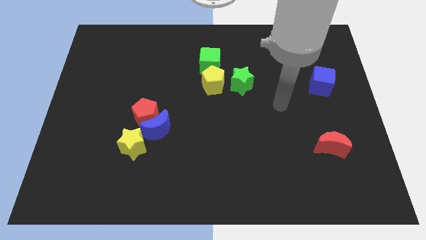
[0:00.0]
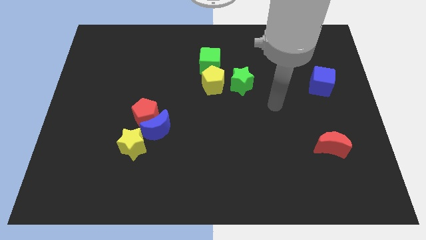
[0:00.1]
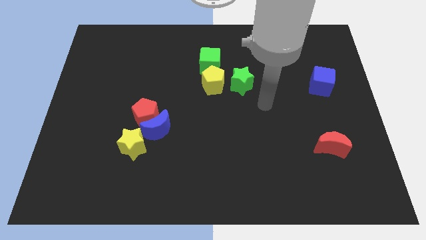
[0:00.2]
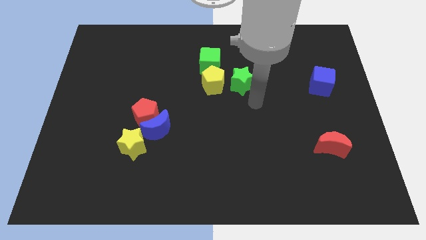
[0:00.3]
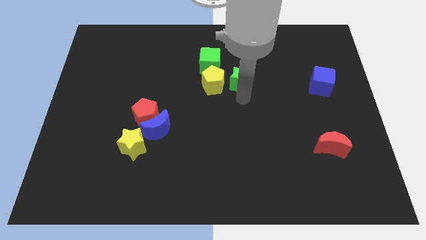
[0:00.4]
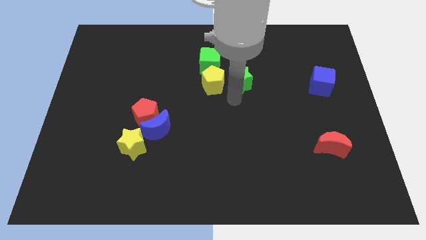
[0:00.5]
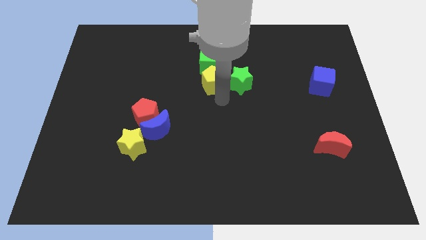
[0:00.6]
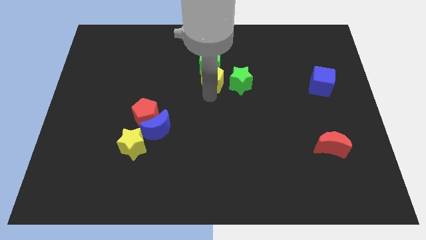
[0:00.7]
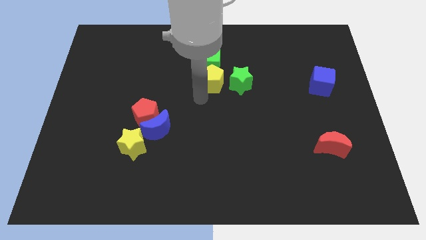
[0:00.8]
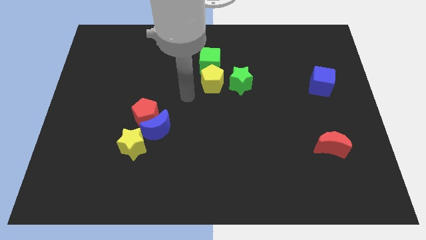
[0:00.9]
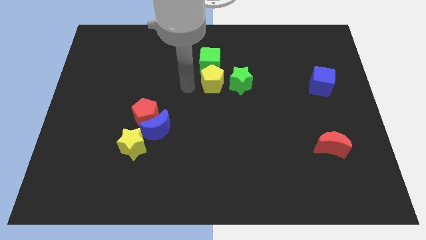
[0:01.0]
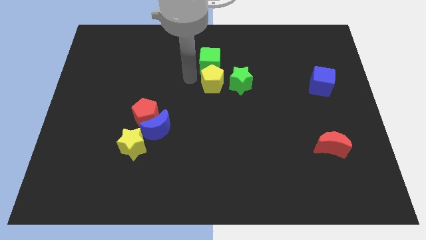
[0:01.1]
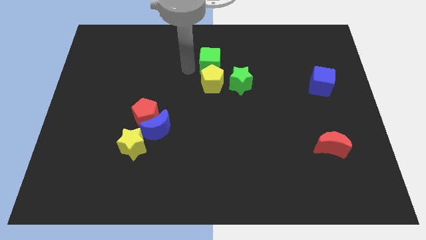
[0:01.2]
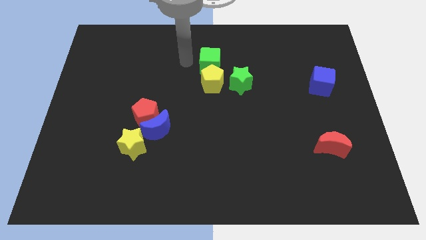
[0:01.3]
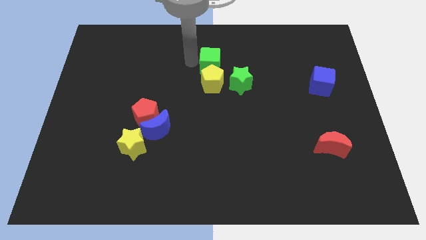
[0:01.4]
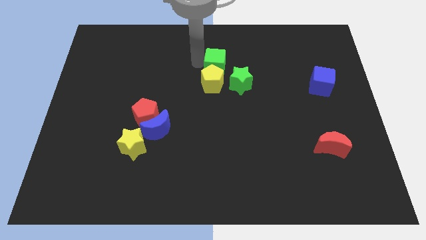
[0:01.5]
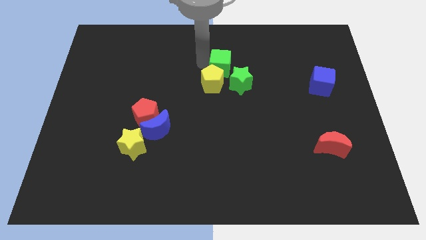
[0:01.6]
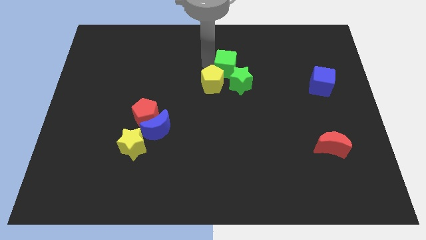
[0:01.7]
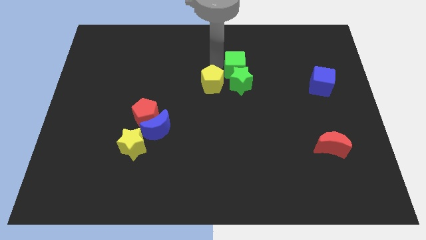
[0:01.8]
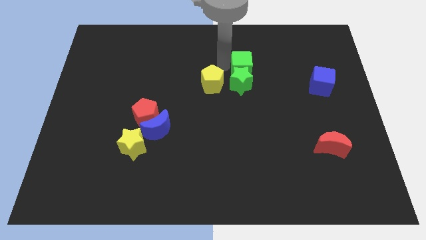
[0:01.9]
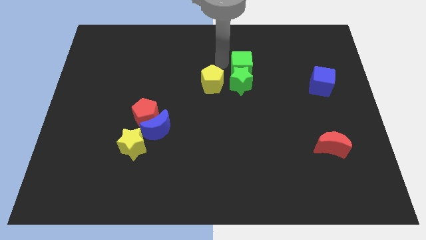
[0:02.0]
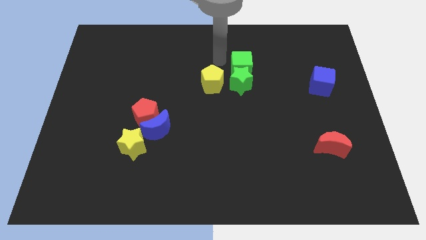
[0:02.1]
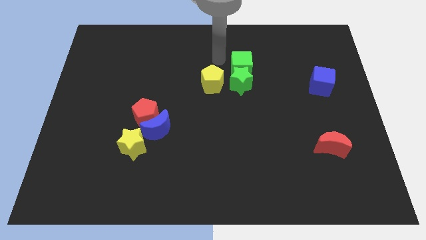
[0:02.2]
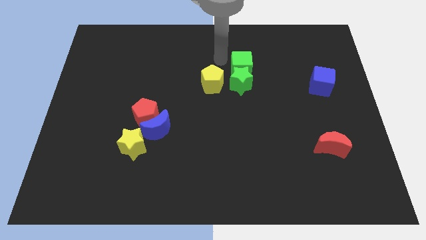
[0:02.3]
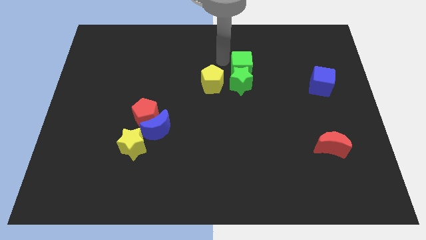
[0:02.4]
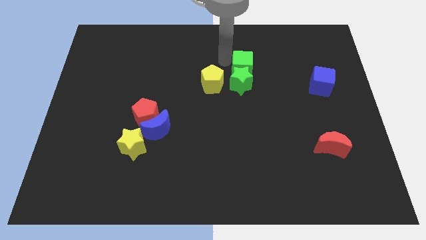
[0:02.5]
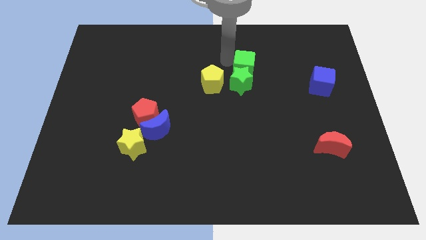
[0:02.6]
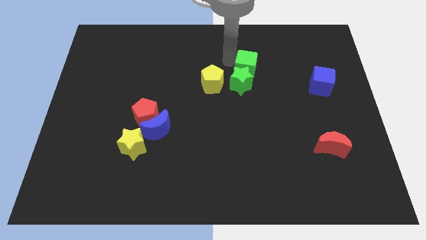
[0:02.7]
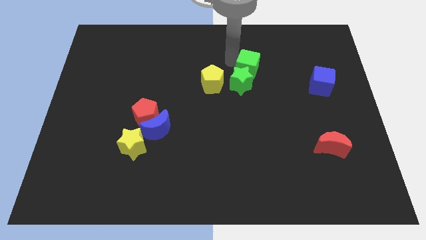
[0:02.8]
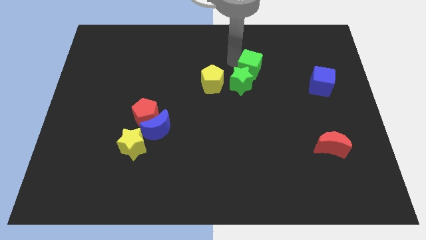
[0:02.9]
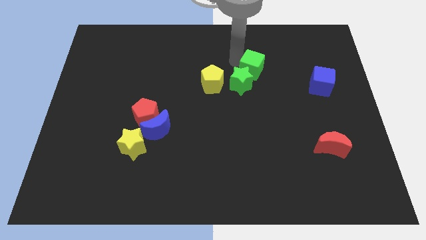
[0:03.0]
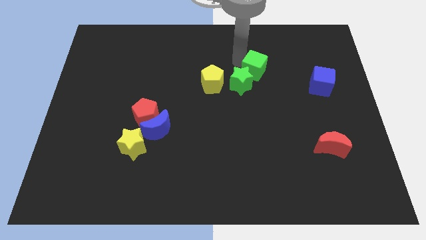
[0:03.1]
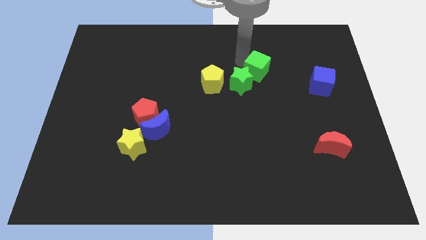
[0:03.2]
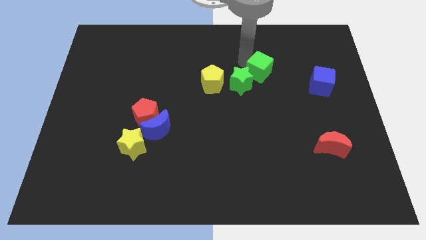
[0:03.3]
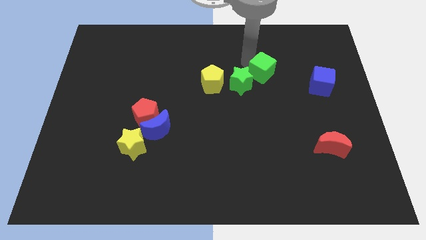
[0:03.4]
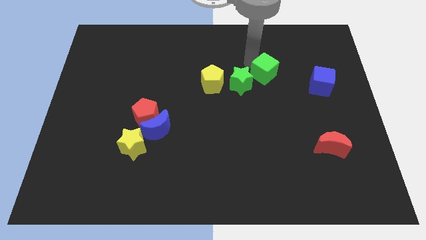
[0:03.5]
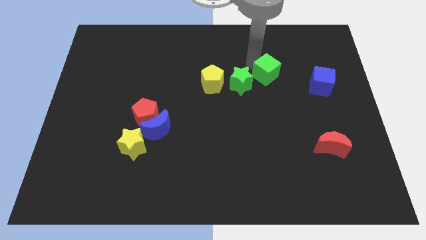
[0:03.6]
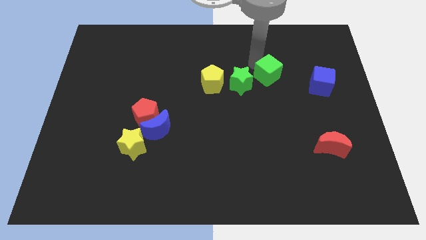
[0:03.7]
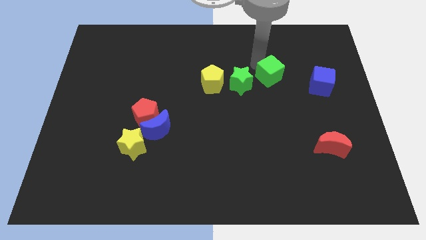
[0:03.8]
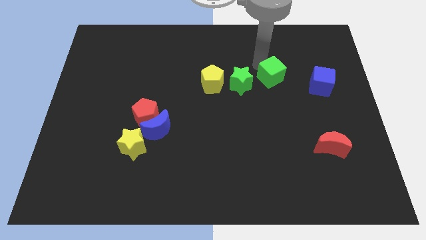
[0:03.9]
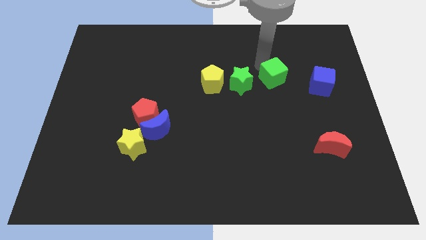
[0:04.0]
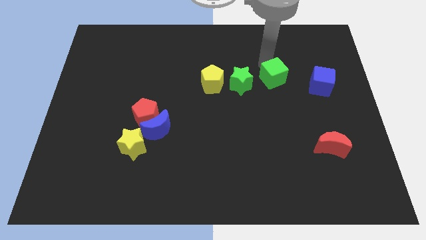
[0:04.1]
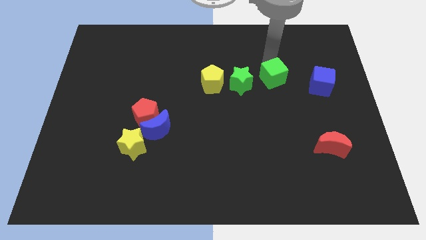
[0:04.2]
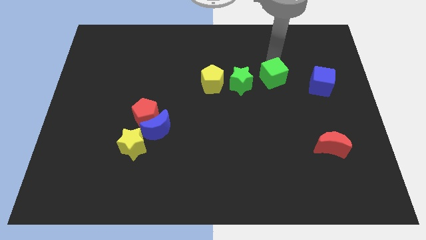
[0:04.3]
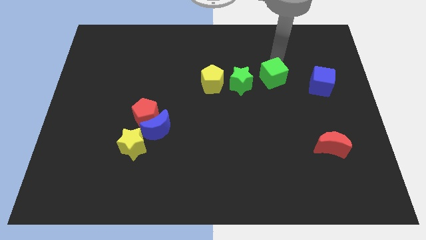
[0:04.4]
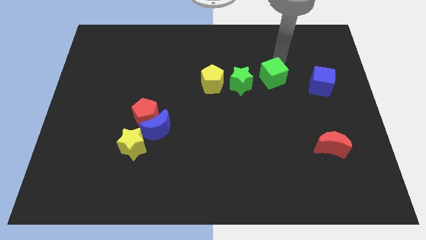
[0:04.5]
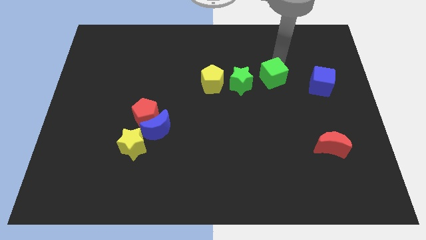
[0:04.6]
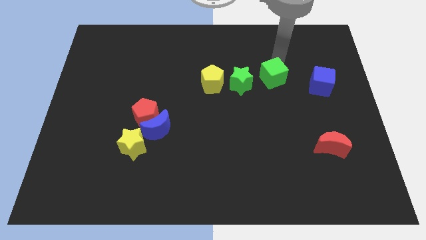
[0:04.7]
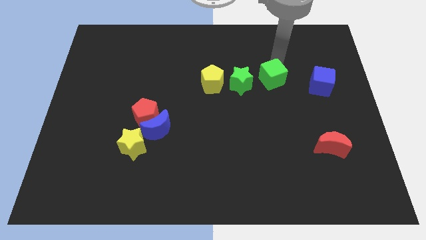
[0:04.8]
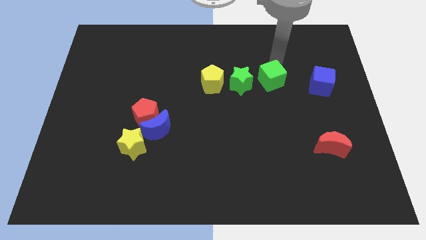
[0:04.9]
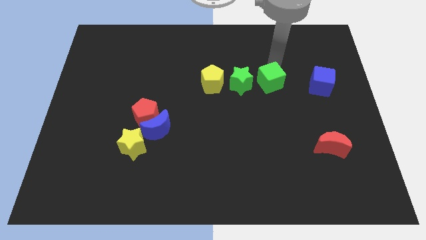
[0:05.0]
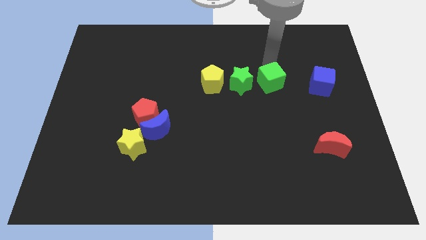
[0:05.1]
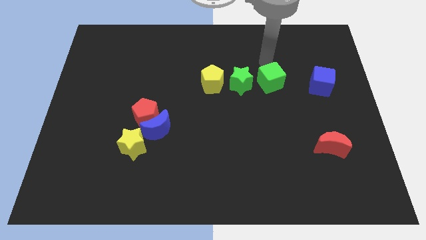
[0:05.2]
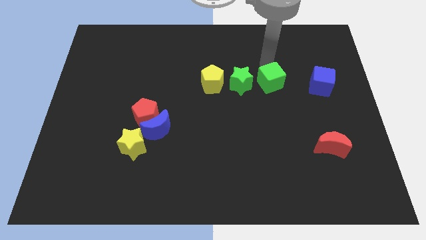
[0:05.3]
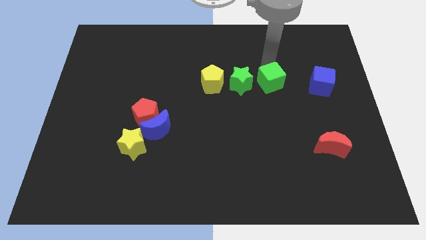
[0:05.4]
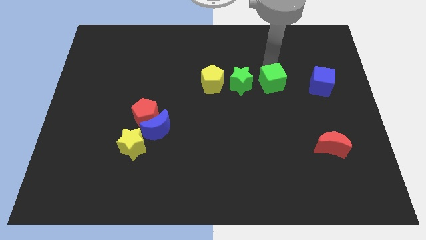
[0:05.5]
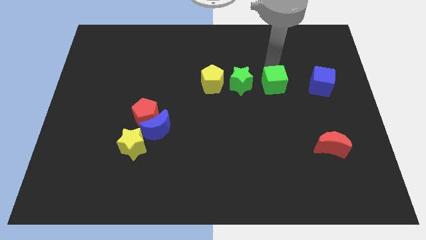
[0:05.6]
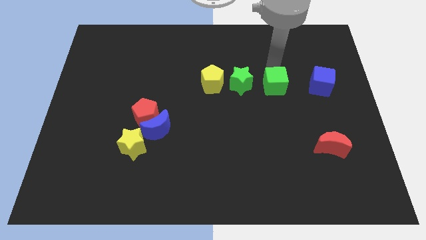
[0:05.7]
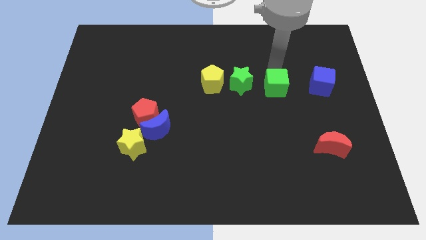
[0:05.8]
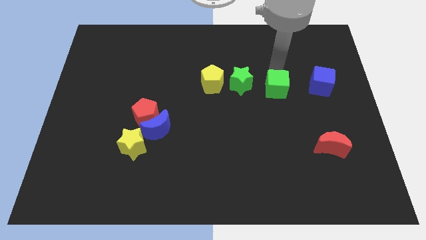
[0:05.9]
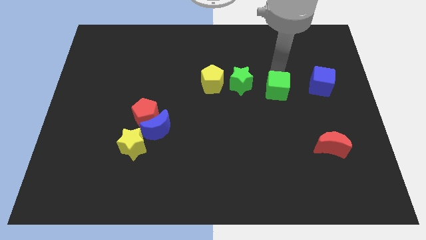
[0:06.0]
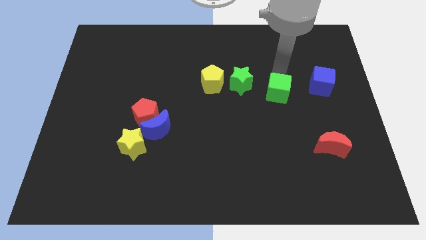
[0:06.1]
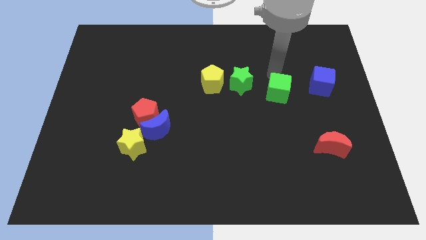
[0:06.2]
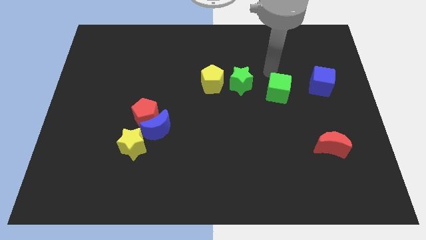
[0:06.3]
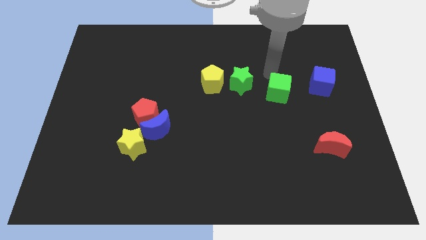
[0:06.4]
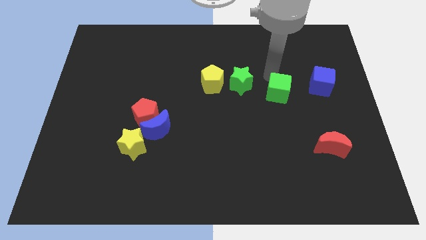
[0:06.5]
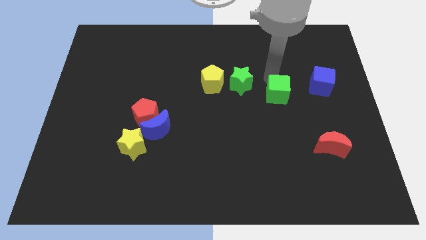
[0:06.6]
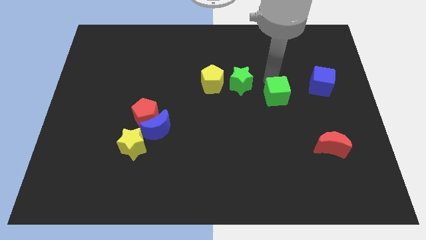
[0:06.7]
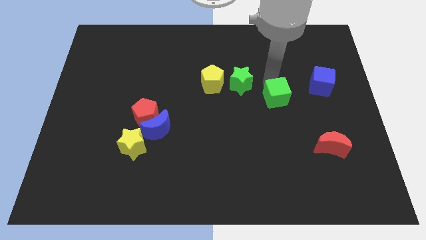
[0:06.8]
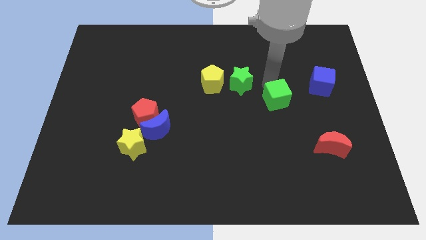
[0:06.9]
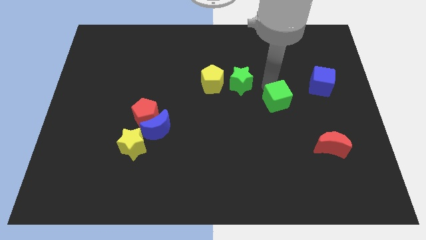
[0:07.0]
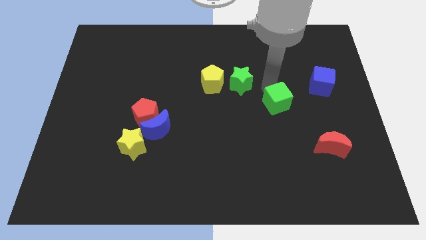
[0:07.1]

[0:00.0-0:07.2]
push the green cube down and then to the right

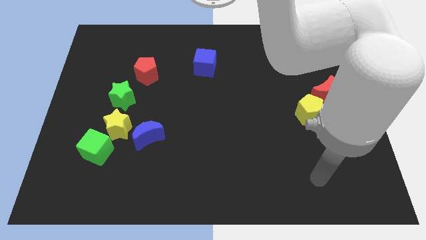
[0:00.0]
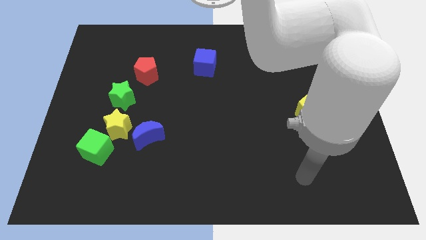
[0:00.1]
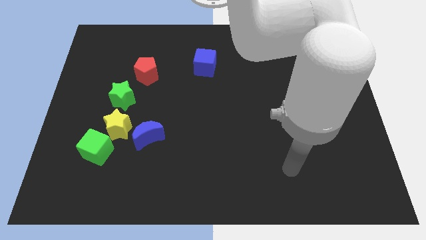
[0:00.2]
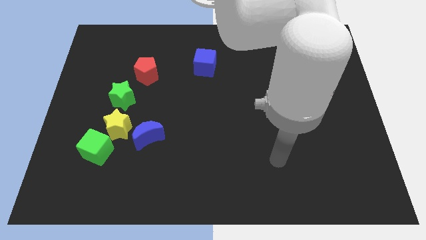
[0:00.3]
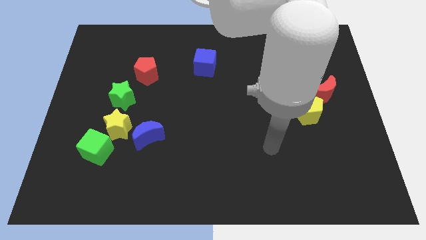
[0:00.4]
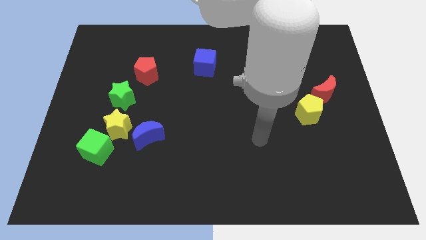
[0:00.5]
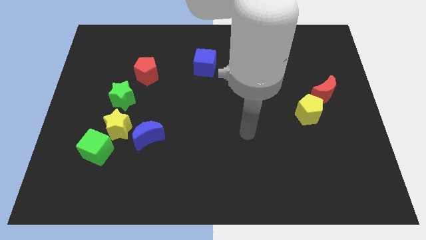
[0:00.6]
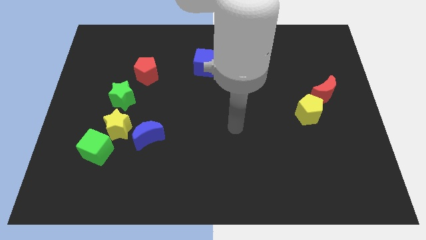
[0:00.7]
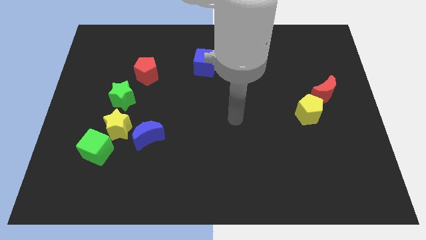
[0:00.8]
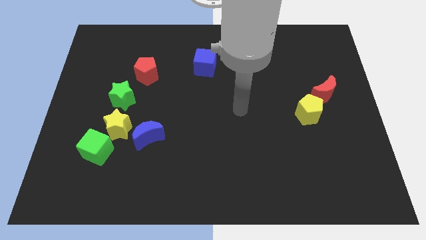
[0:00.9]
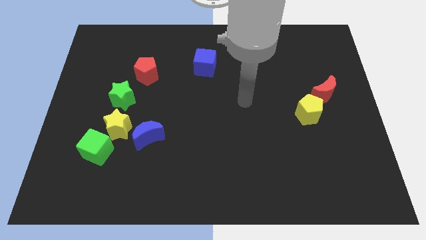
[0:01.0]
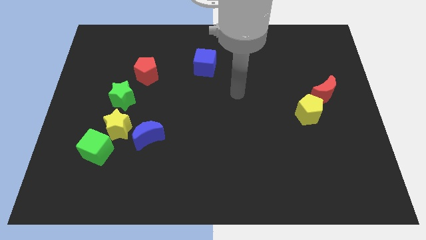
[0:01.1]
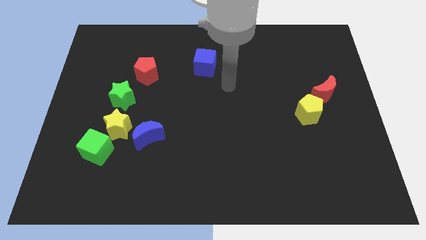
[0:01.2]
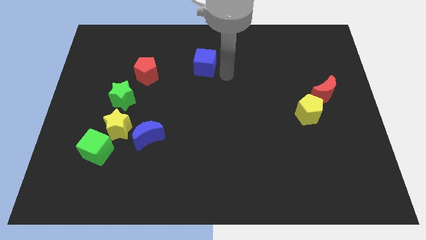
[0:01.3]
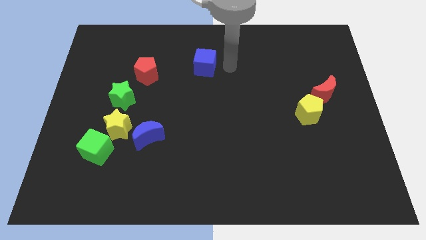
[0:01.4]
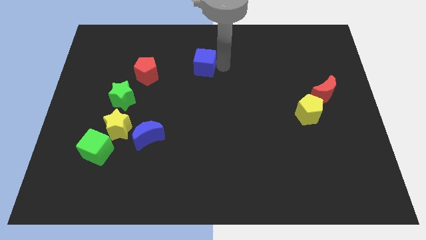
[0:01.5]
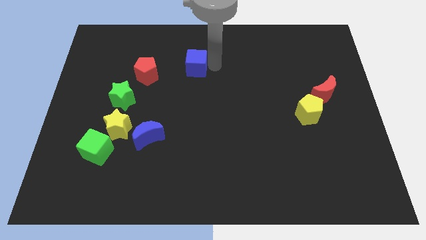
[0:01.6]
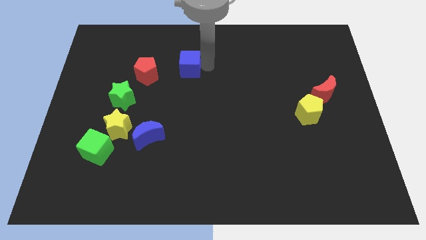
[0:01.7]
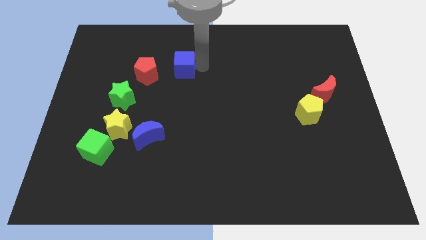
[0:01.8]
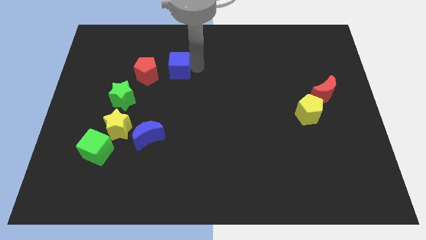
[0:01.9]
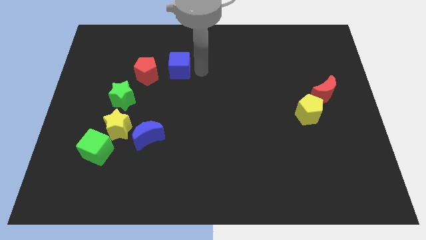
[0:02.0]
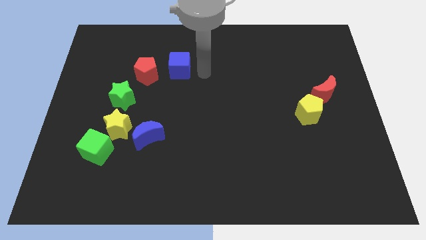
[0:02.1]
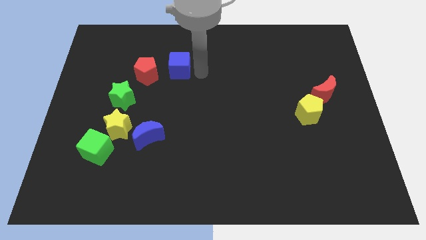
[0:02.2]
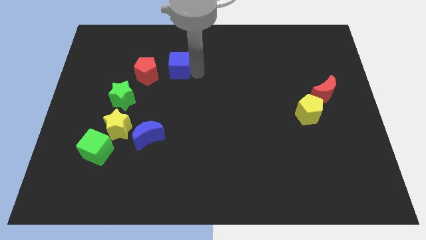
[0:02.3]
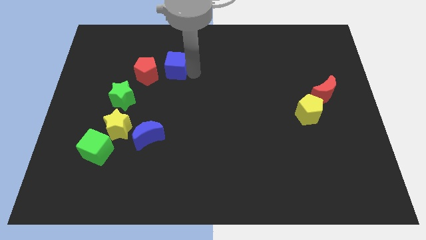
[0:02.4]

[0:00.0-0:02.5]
push the blue cube left a little bit
